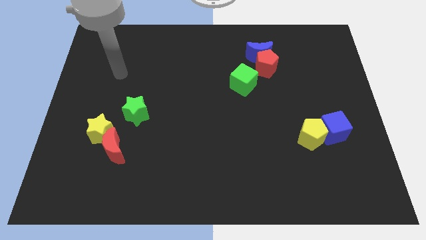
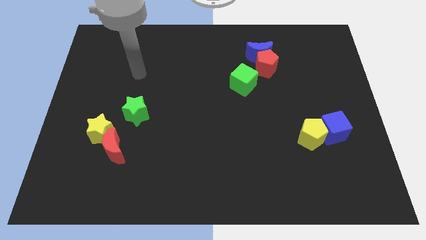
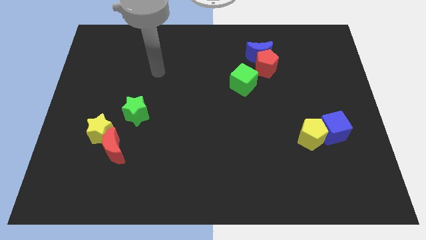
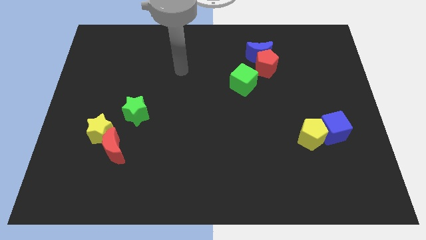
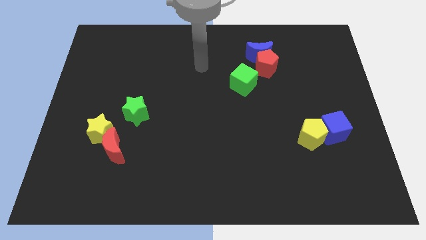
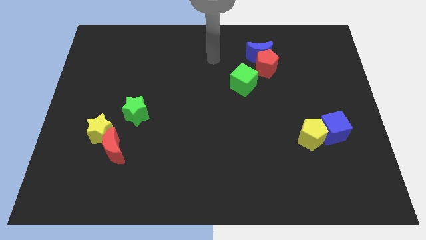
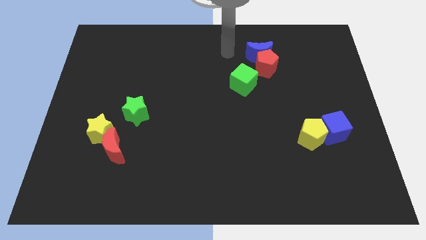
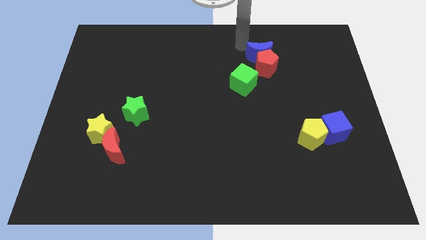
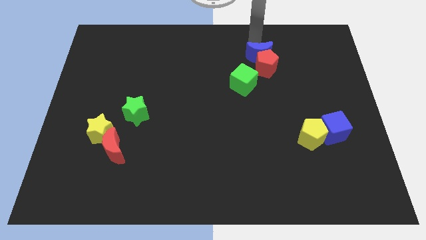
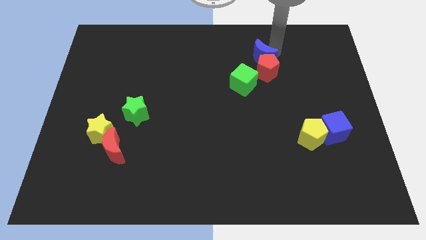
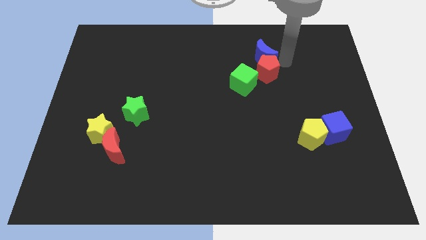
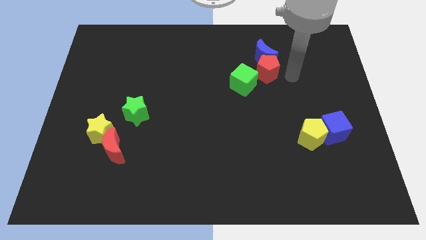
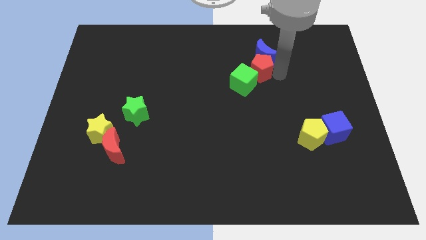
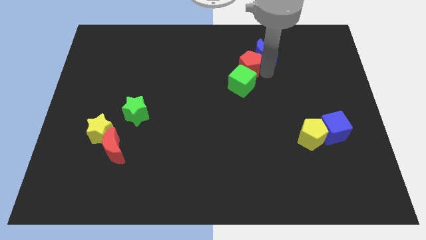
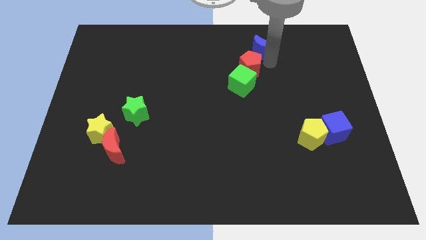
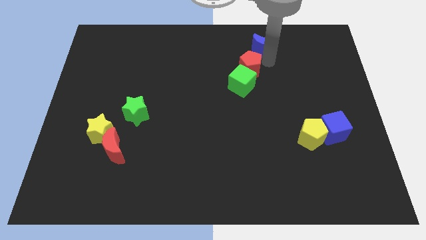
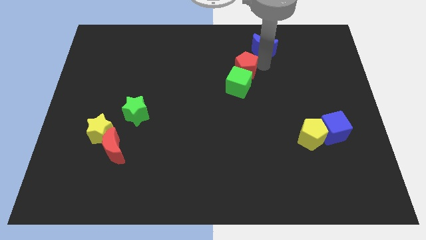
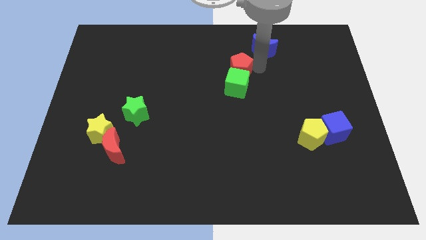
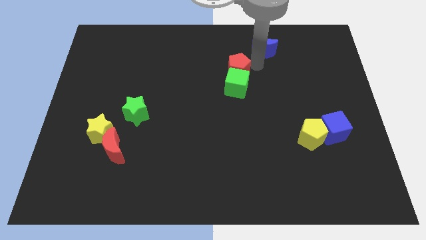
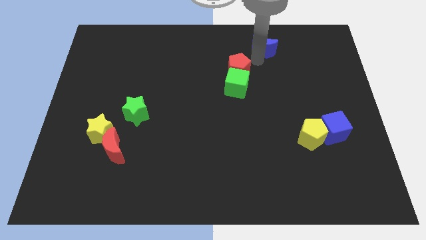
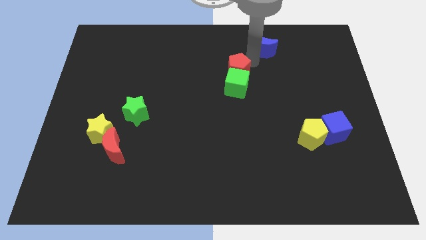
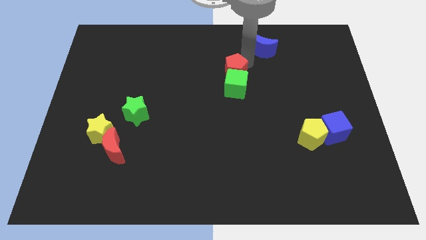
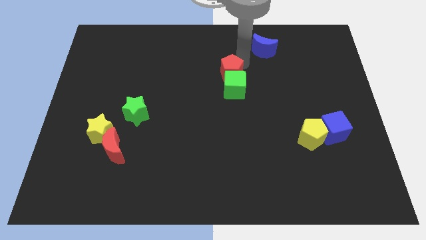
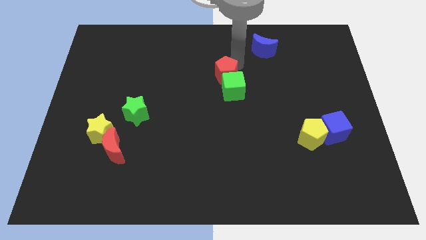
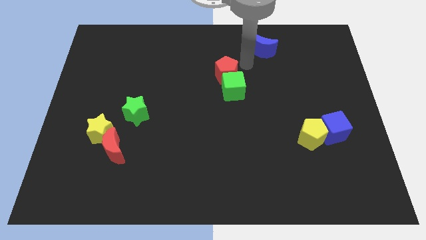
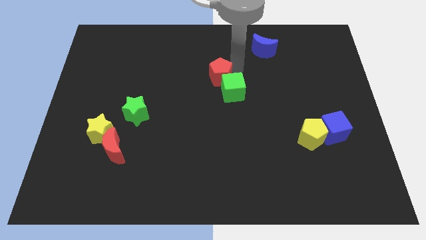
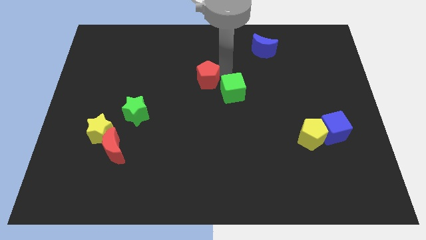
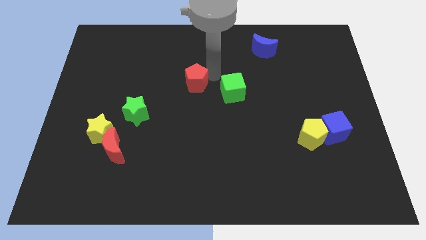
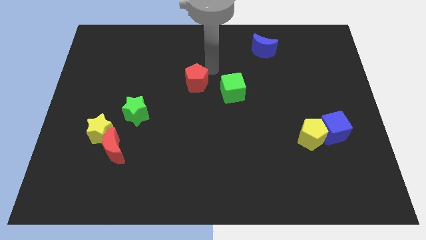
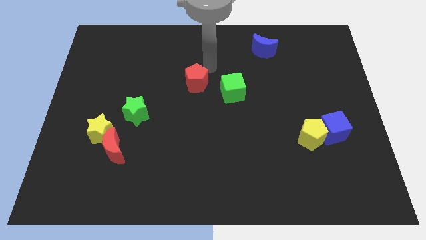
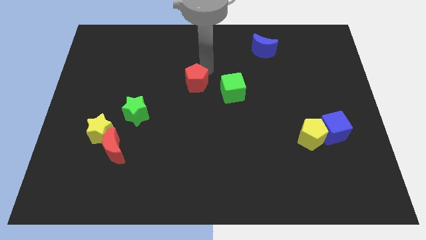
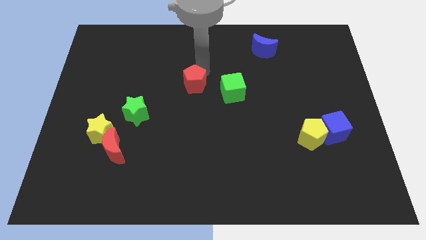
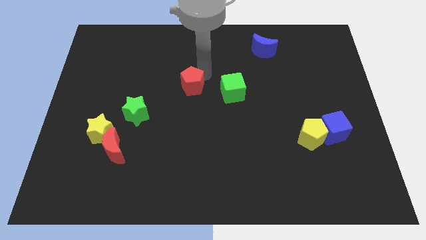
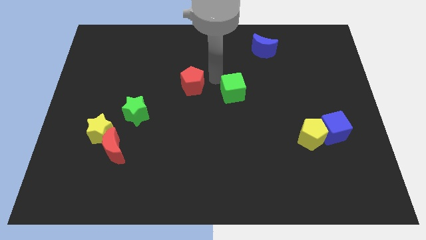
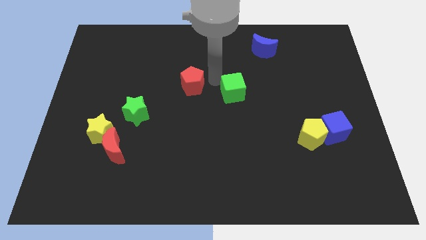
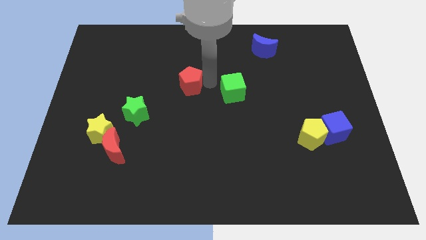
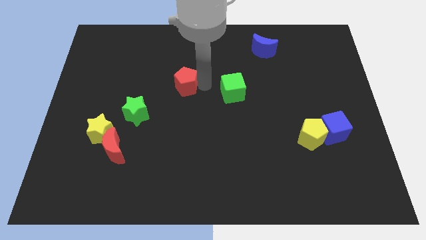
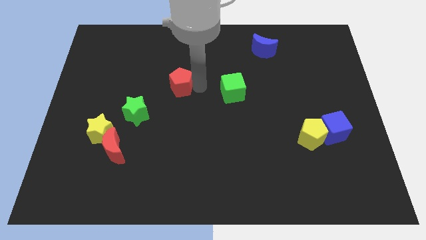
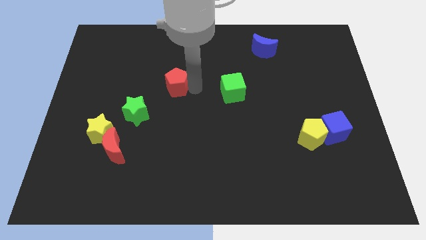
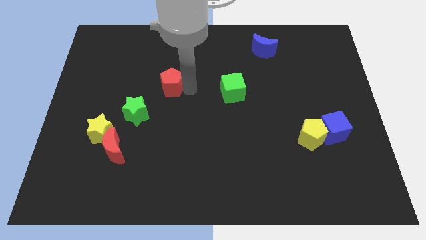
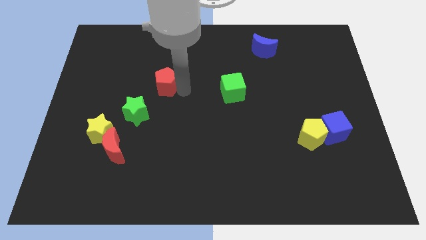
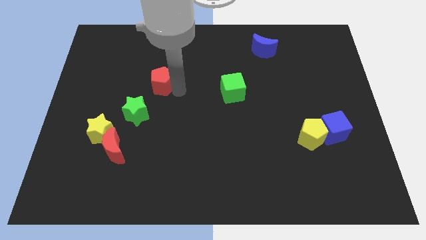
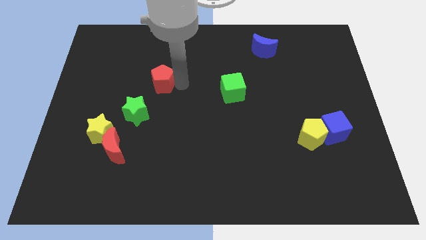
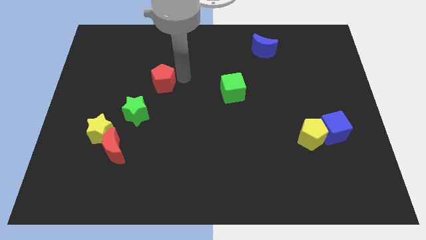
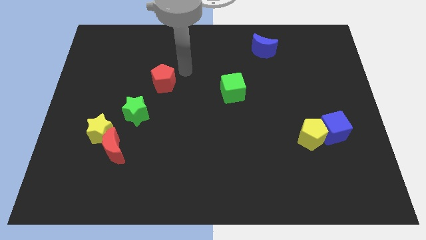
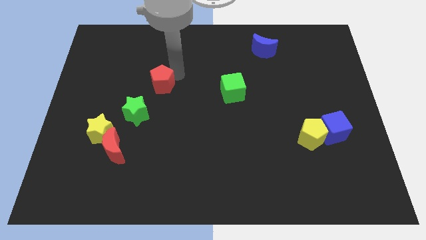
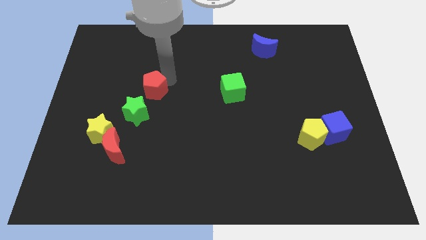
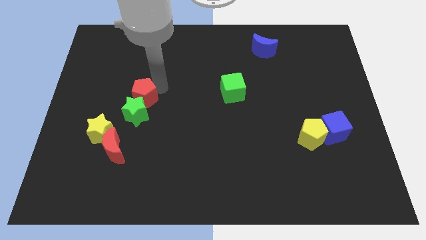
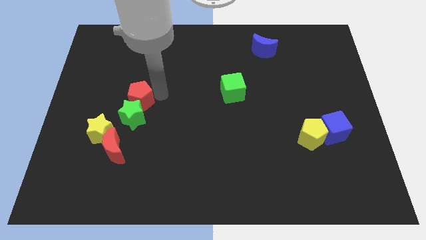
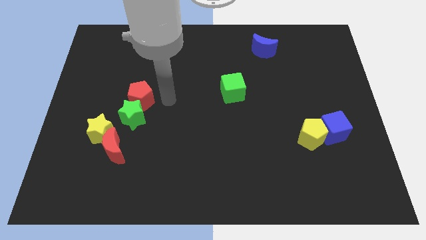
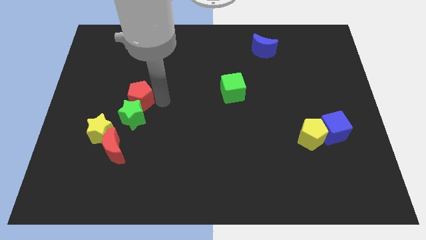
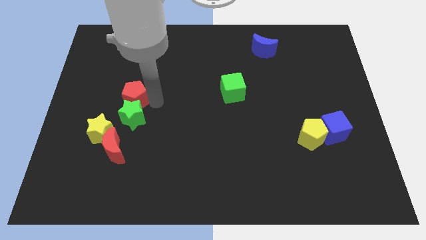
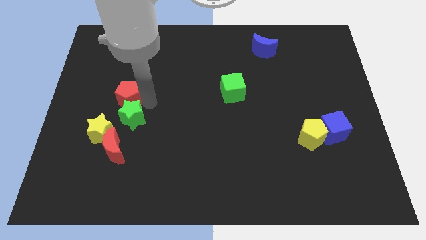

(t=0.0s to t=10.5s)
put the red pentagon to the top of the yellow star

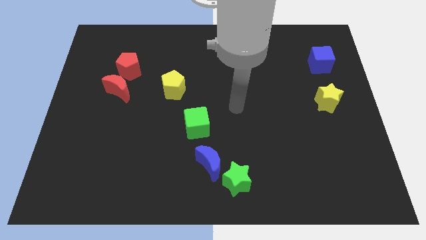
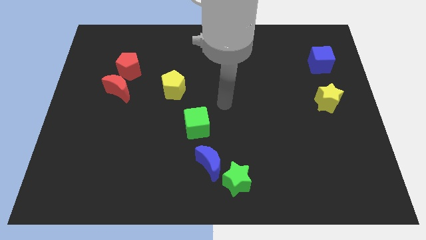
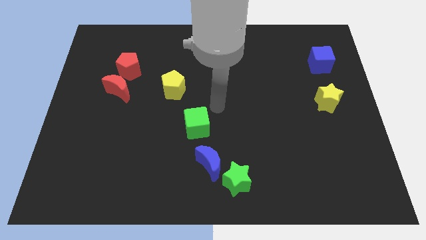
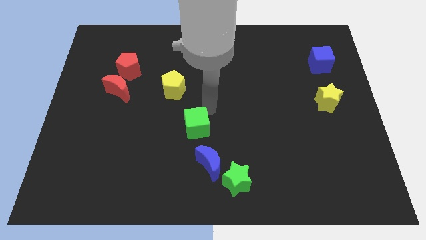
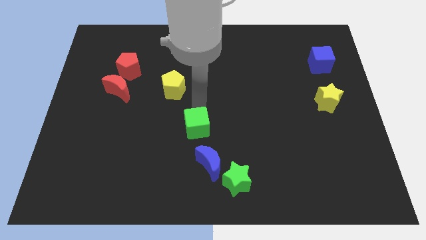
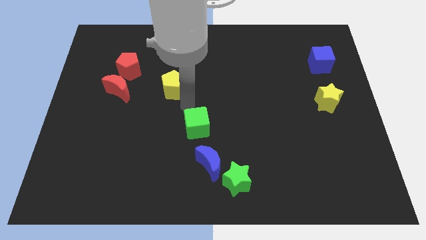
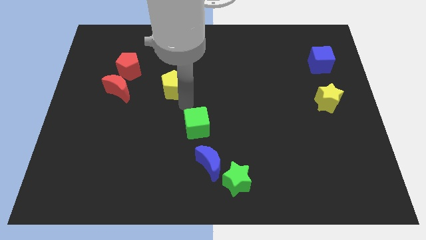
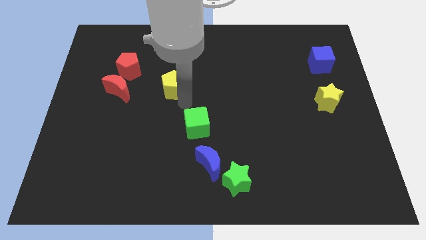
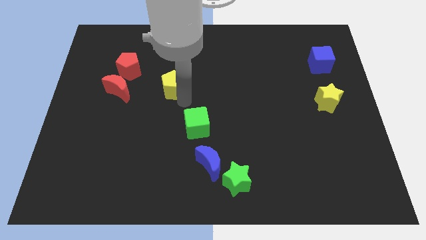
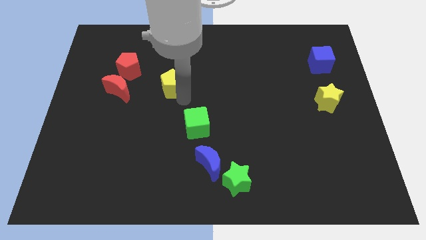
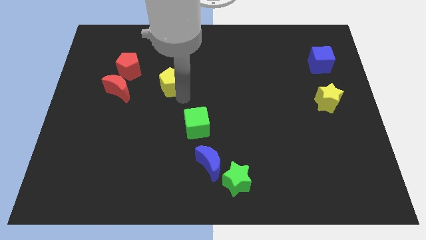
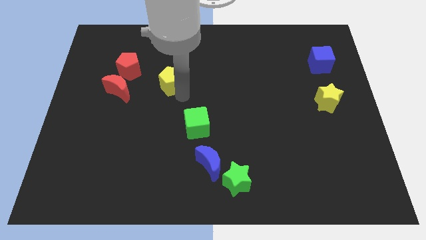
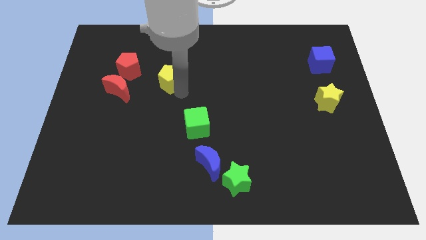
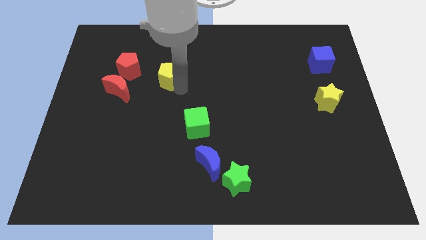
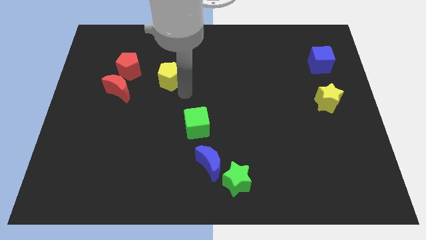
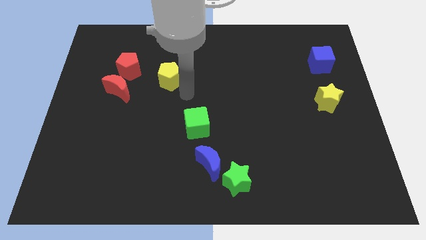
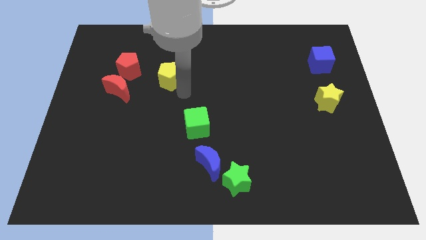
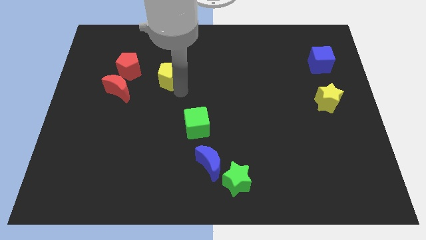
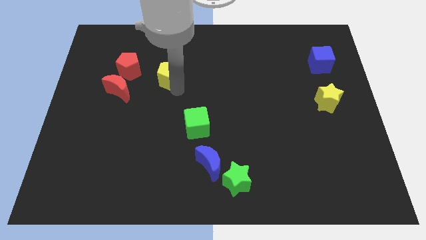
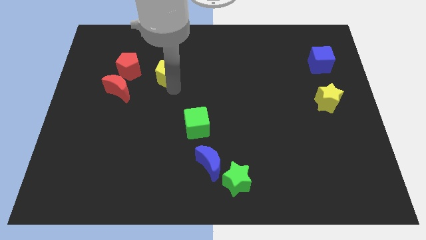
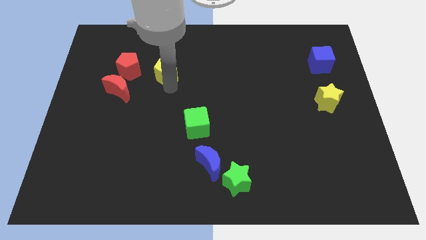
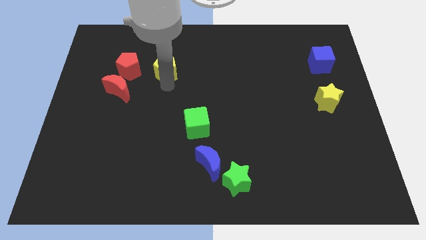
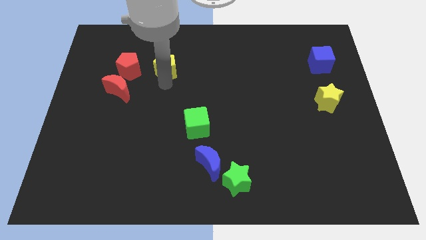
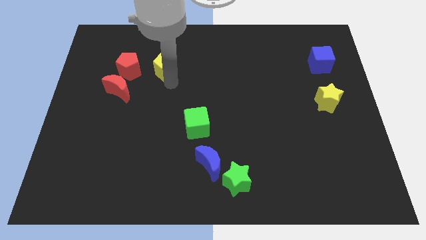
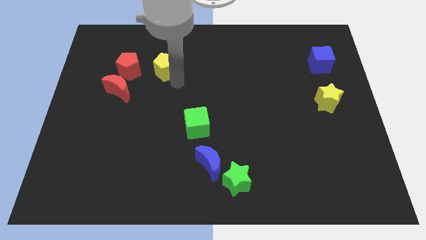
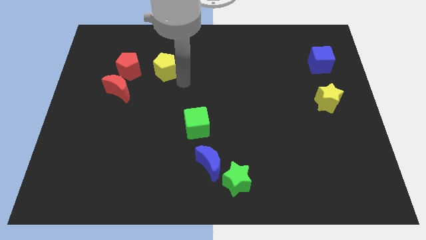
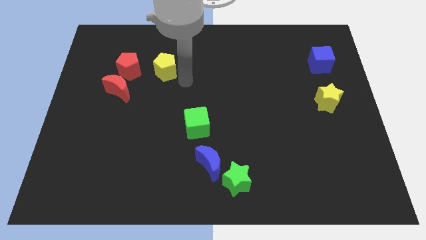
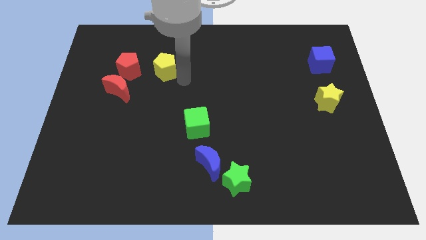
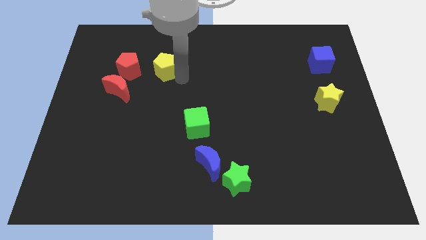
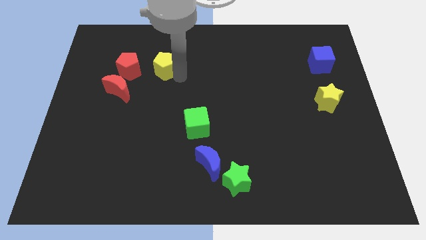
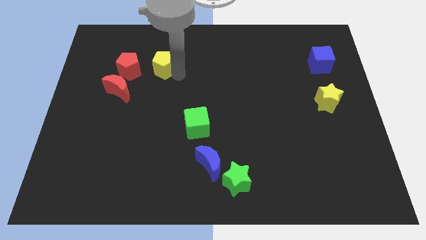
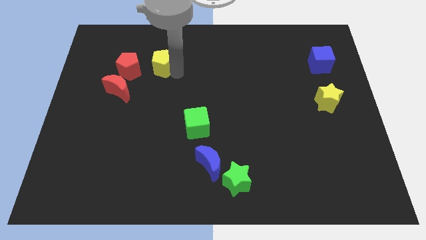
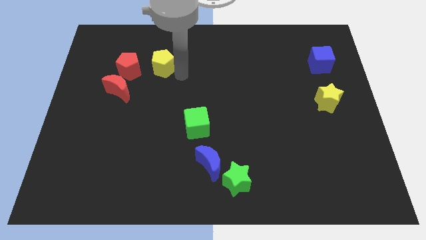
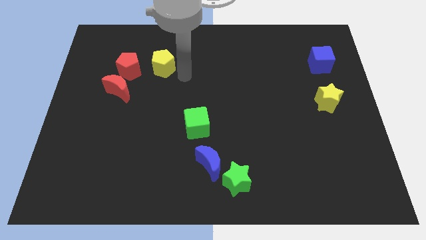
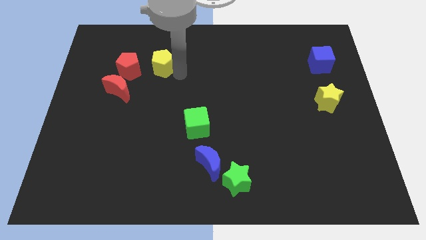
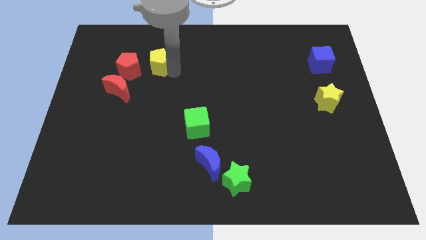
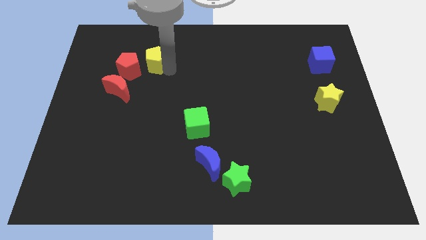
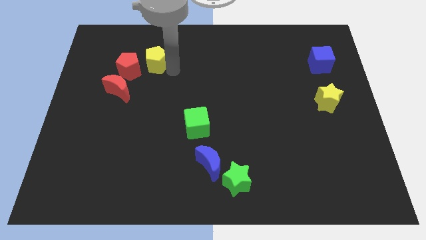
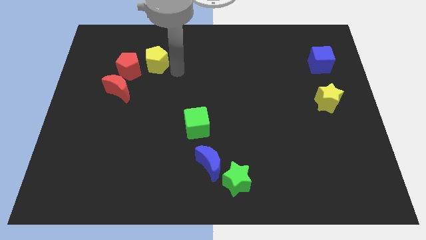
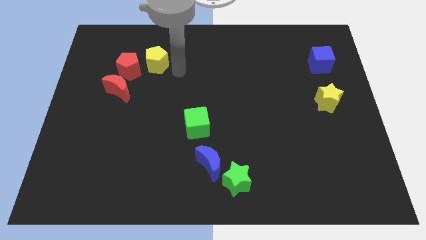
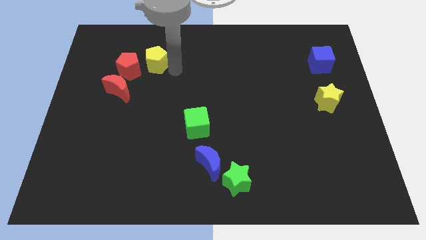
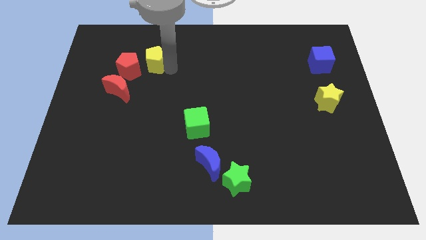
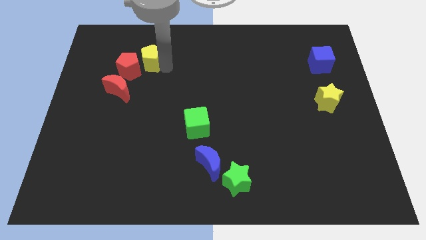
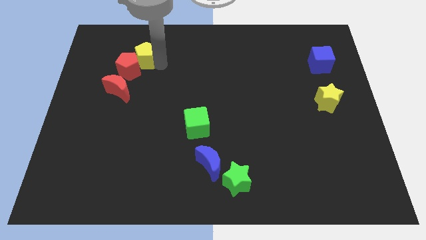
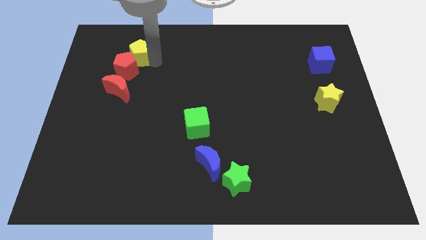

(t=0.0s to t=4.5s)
push the yellow pentagon above the red moon
